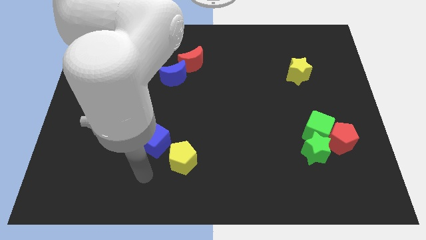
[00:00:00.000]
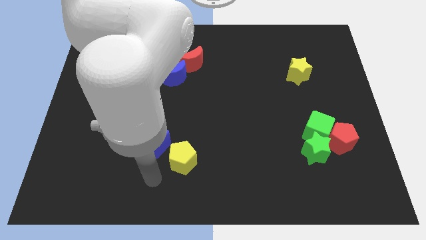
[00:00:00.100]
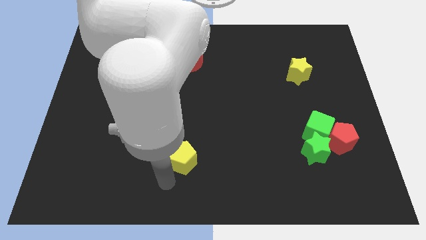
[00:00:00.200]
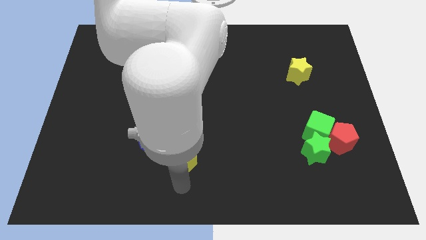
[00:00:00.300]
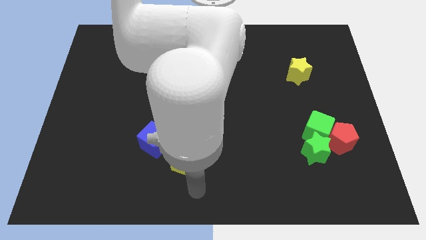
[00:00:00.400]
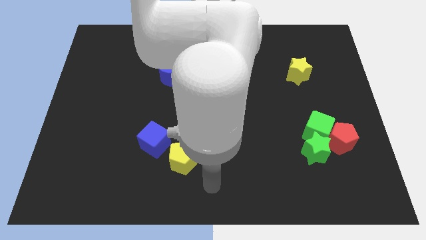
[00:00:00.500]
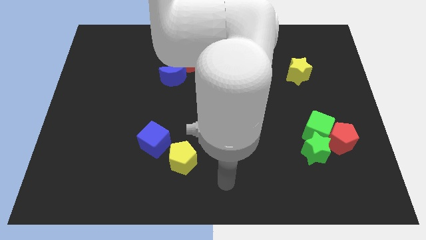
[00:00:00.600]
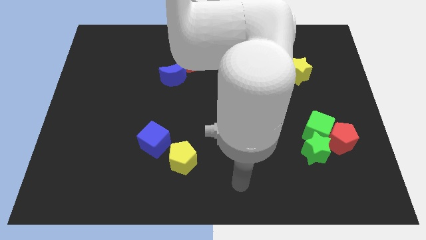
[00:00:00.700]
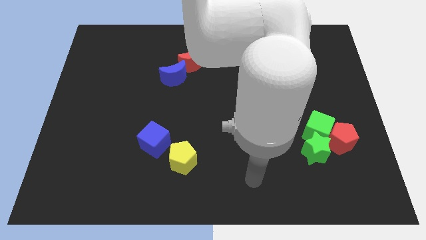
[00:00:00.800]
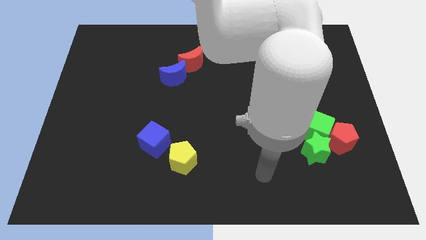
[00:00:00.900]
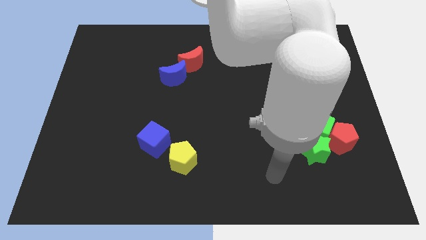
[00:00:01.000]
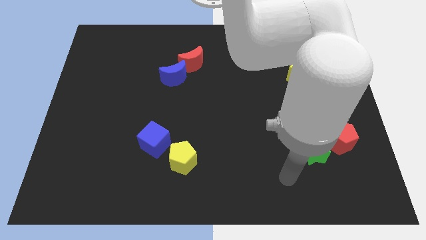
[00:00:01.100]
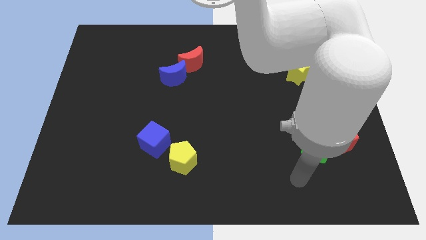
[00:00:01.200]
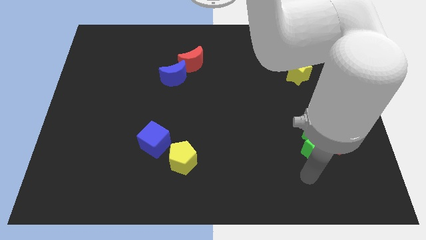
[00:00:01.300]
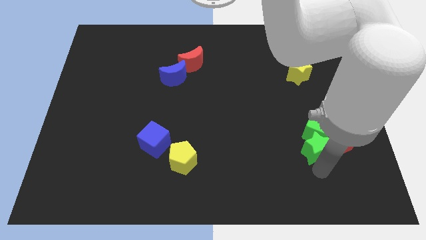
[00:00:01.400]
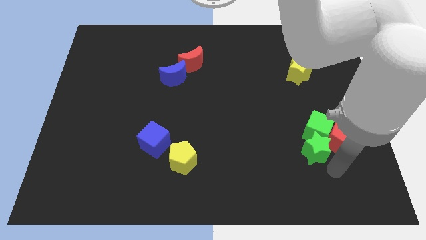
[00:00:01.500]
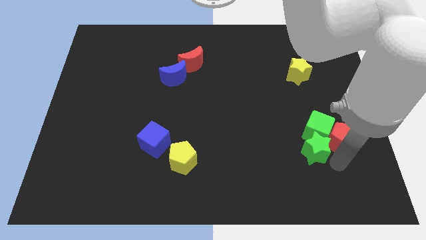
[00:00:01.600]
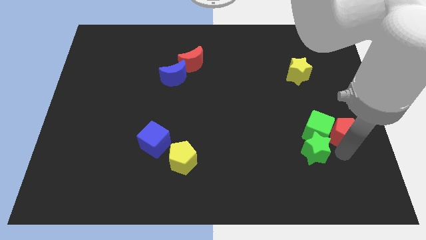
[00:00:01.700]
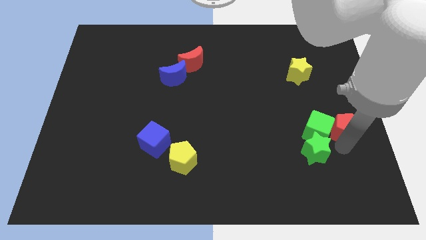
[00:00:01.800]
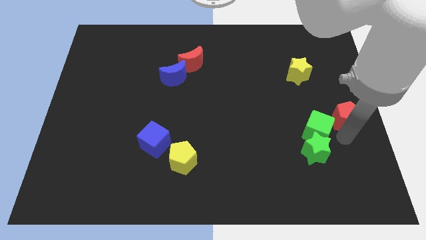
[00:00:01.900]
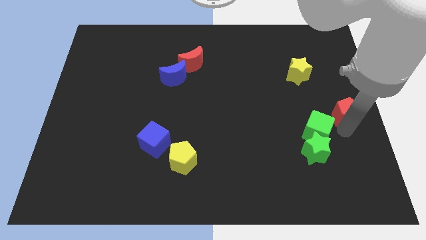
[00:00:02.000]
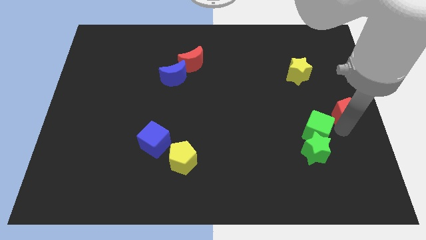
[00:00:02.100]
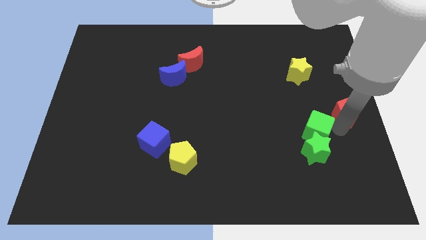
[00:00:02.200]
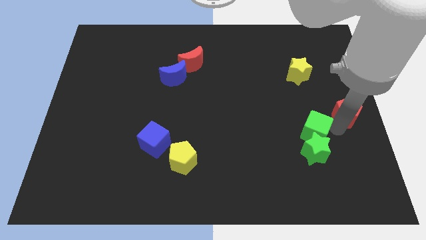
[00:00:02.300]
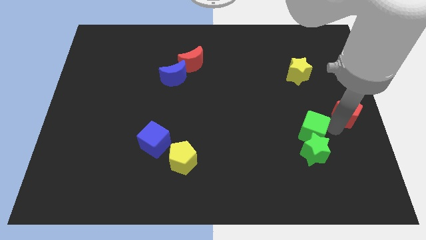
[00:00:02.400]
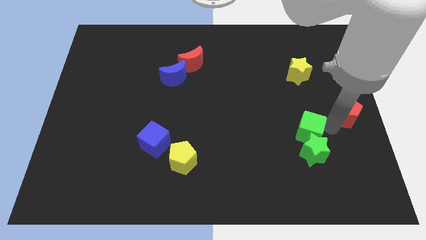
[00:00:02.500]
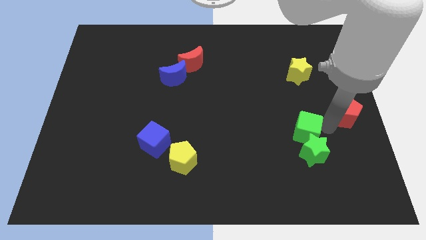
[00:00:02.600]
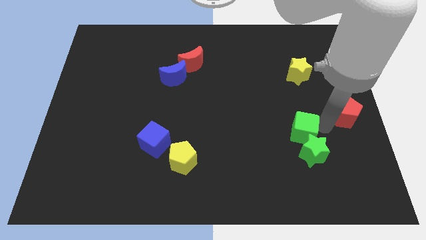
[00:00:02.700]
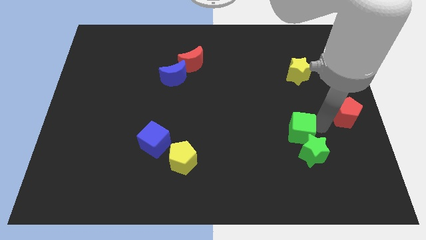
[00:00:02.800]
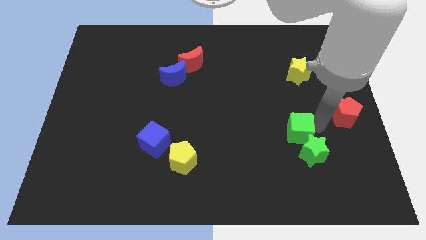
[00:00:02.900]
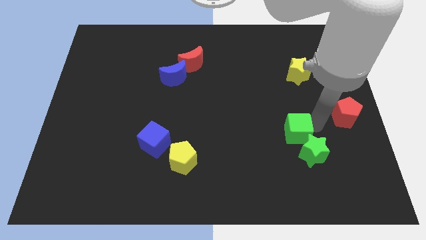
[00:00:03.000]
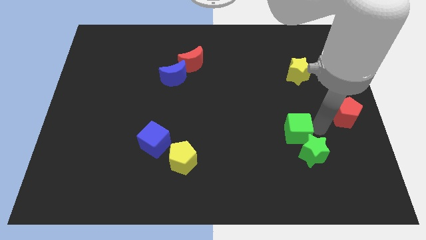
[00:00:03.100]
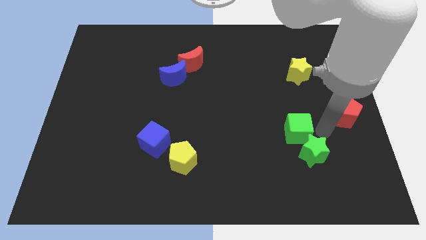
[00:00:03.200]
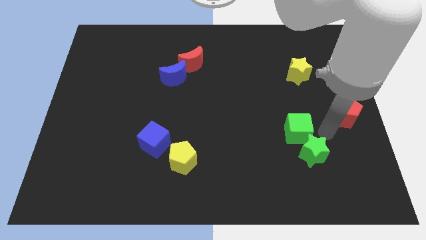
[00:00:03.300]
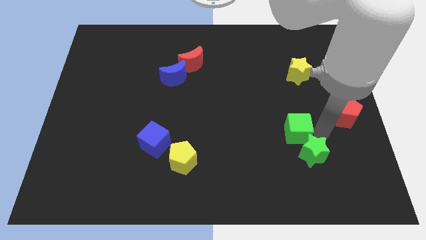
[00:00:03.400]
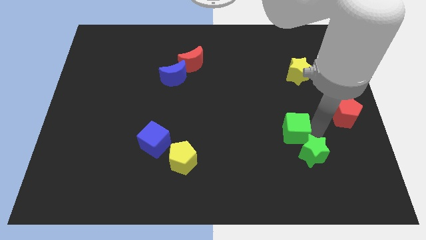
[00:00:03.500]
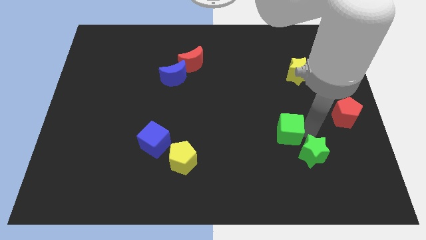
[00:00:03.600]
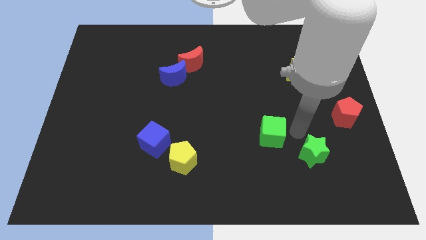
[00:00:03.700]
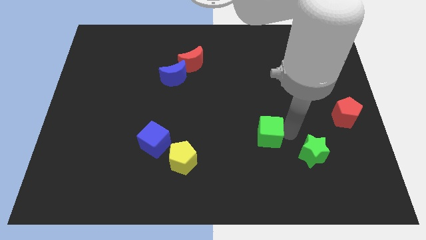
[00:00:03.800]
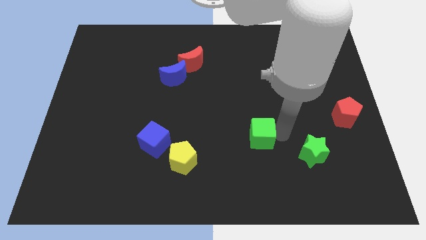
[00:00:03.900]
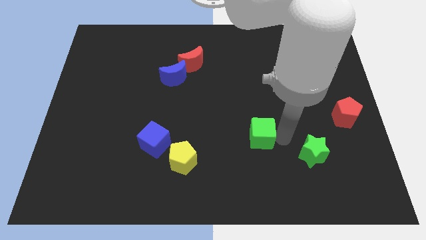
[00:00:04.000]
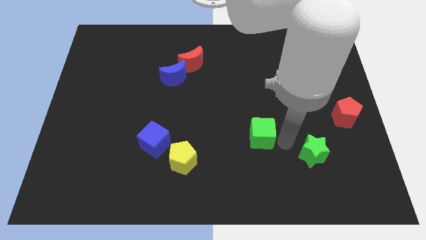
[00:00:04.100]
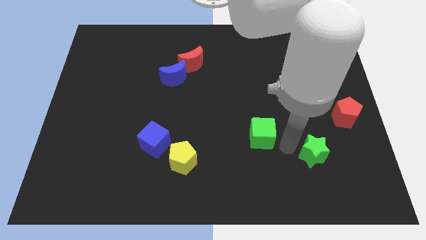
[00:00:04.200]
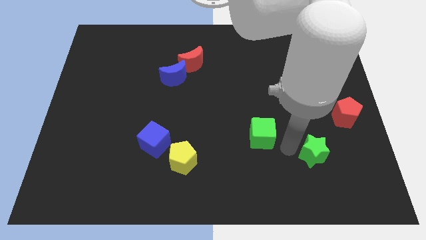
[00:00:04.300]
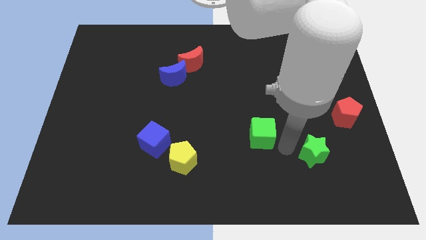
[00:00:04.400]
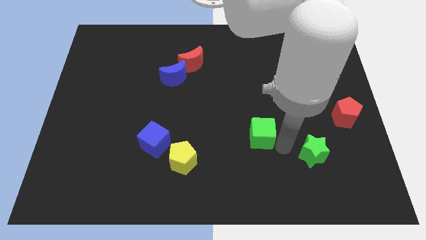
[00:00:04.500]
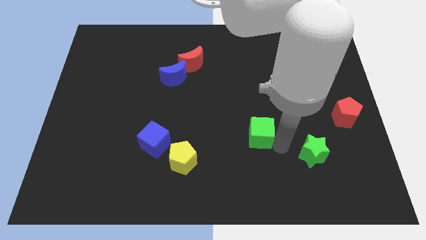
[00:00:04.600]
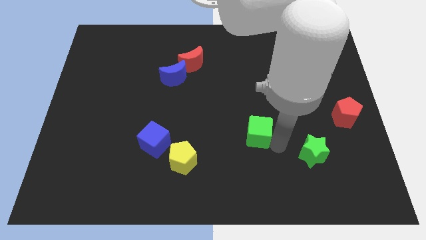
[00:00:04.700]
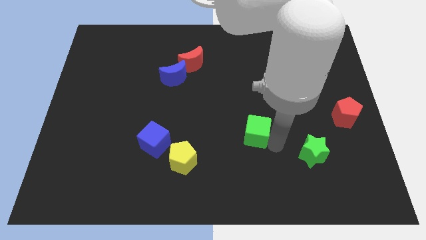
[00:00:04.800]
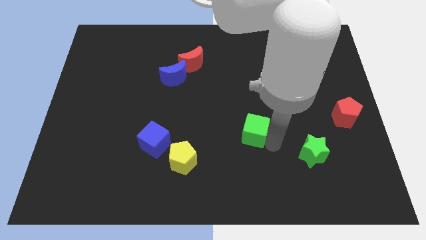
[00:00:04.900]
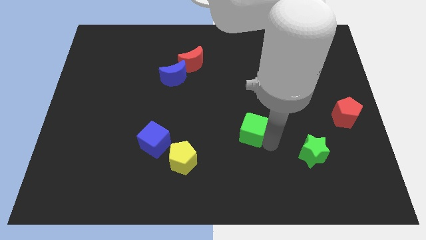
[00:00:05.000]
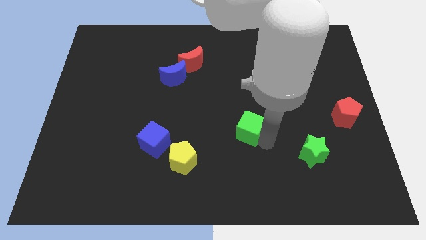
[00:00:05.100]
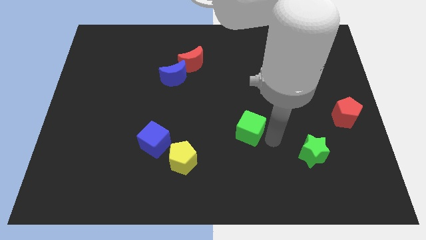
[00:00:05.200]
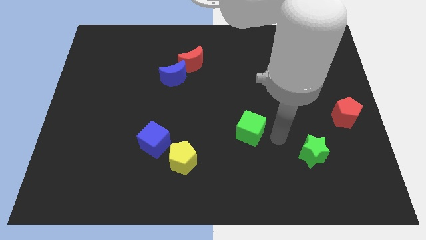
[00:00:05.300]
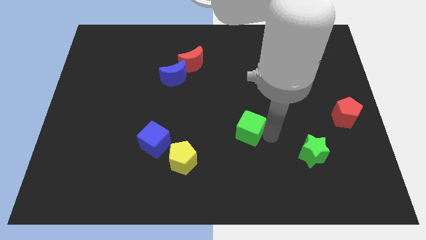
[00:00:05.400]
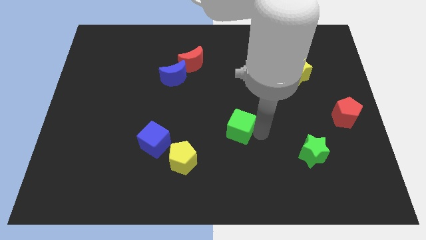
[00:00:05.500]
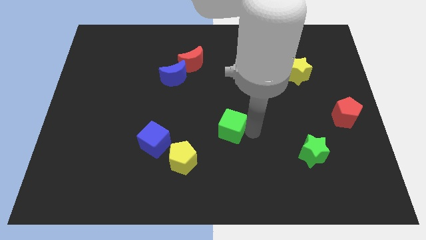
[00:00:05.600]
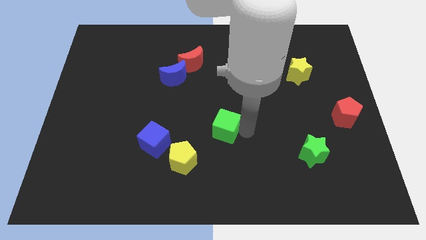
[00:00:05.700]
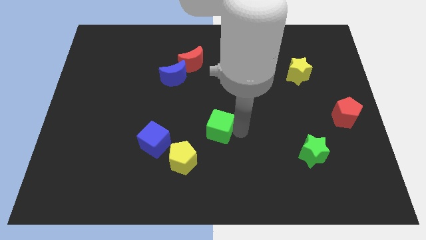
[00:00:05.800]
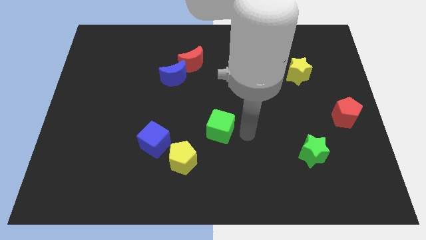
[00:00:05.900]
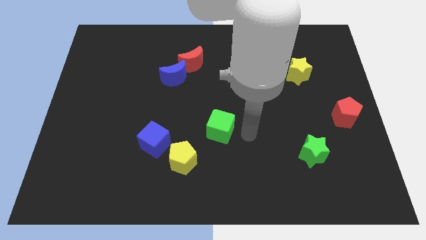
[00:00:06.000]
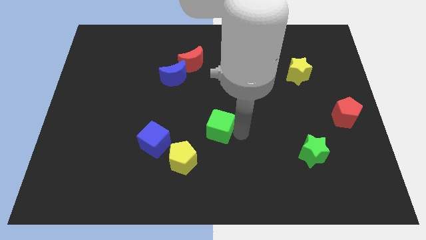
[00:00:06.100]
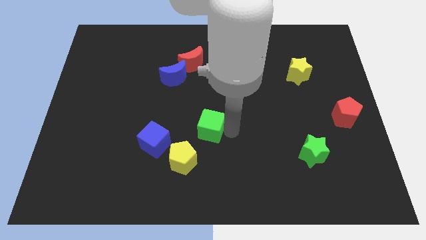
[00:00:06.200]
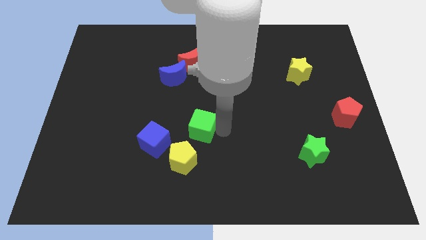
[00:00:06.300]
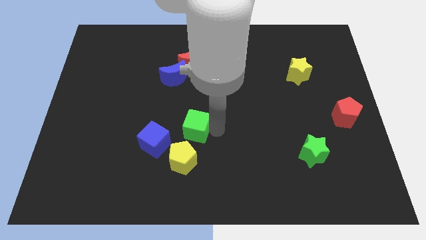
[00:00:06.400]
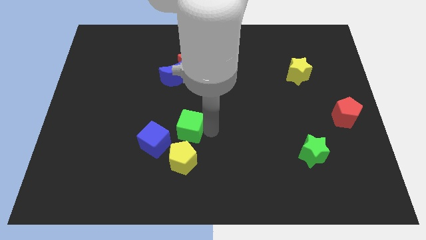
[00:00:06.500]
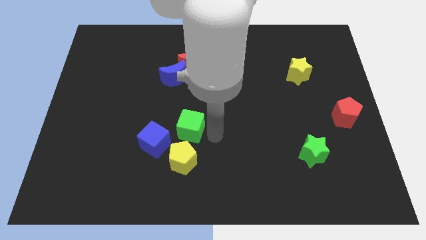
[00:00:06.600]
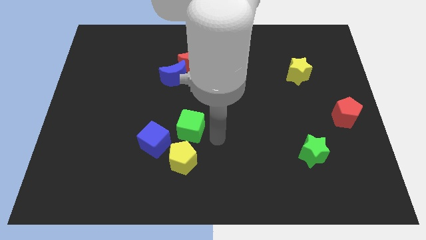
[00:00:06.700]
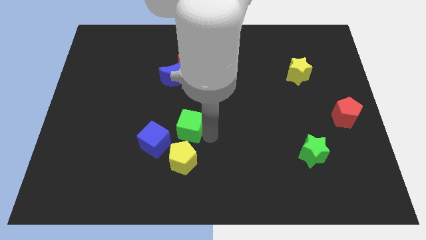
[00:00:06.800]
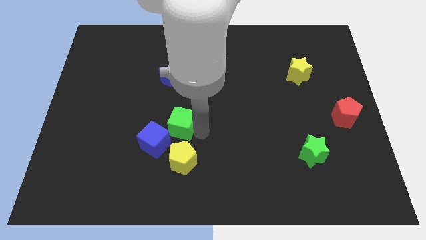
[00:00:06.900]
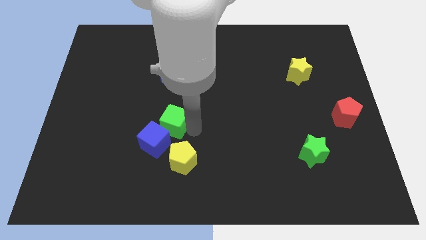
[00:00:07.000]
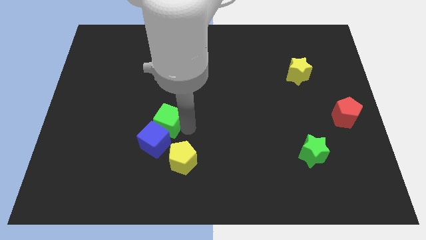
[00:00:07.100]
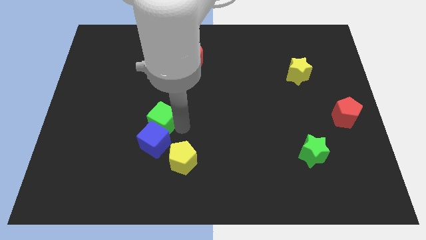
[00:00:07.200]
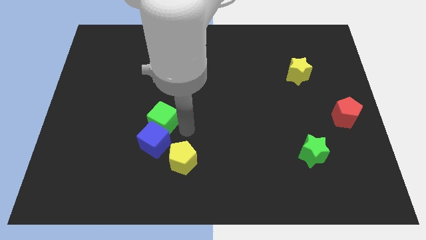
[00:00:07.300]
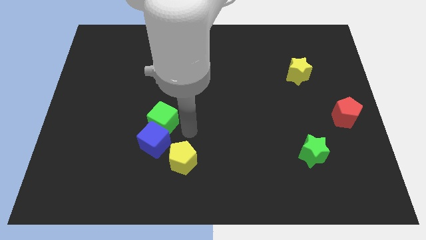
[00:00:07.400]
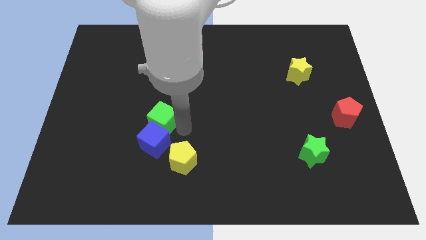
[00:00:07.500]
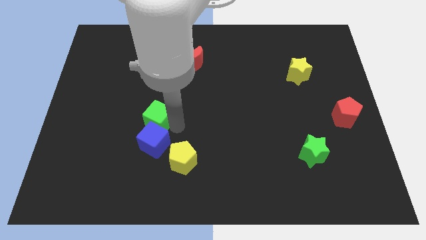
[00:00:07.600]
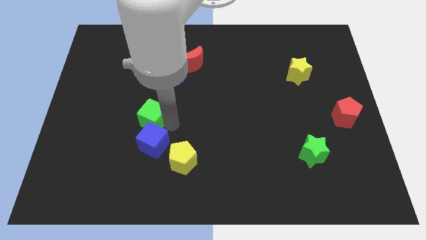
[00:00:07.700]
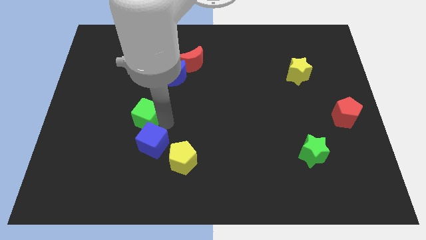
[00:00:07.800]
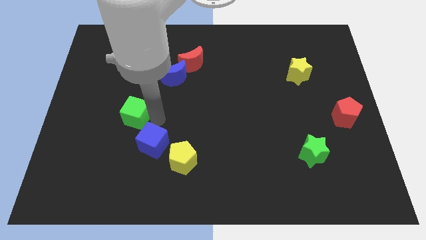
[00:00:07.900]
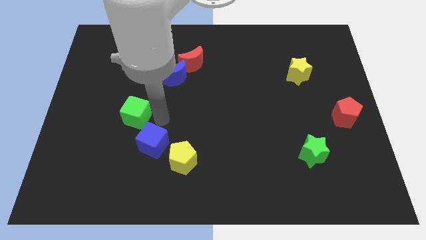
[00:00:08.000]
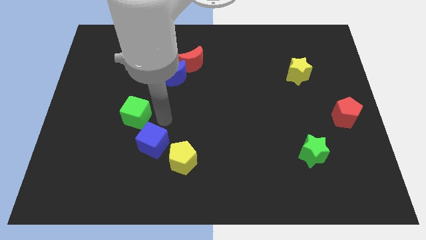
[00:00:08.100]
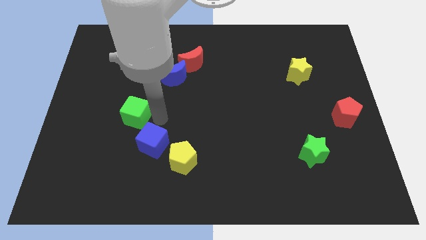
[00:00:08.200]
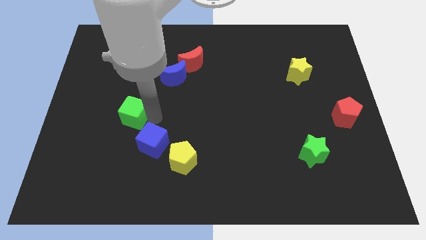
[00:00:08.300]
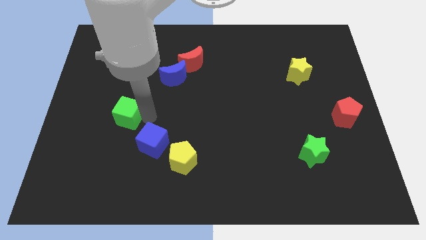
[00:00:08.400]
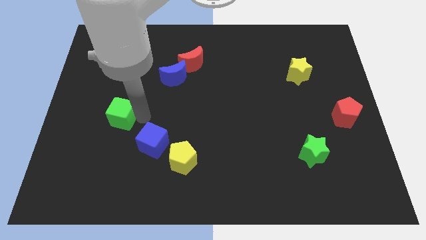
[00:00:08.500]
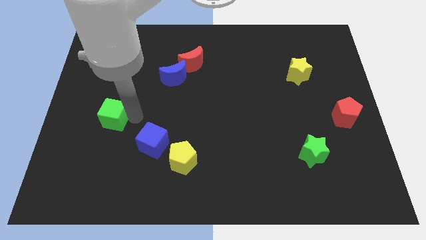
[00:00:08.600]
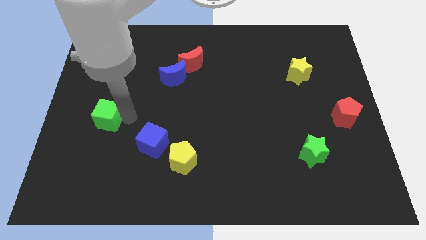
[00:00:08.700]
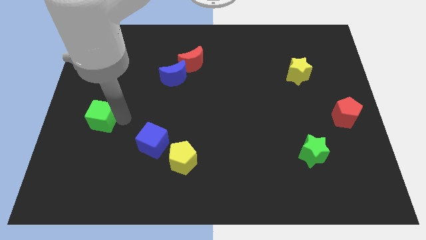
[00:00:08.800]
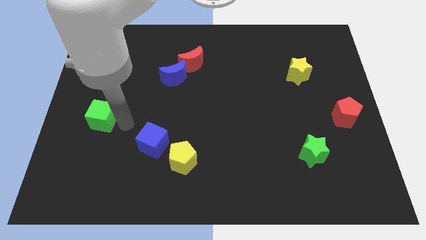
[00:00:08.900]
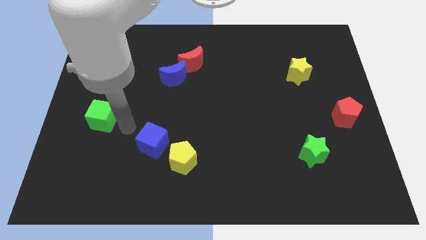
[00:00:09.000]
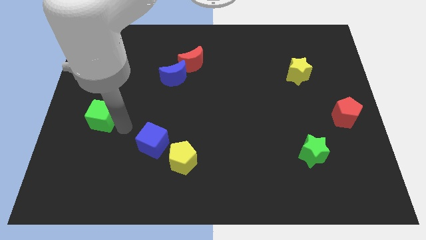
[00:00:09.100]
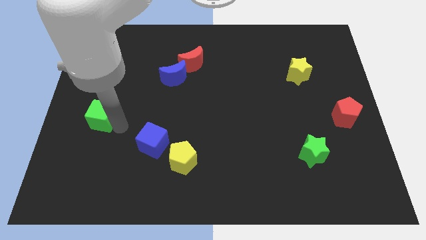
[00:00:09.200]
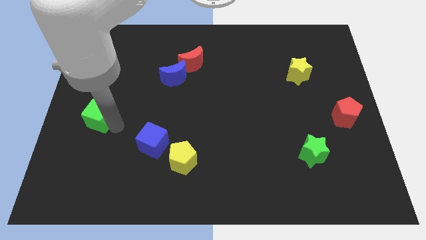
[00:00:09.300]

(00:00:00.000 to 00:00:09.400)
put the green cube to the left side
